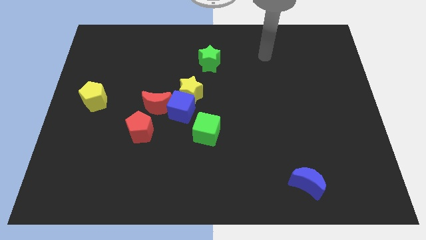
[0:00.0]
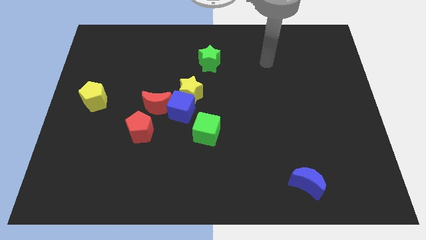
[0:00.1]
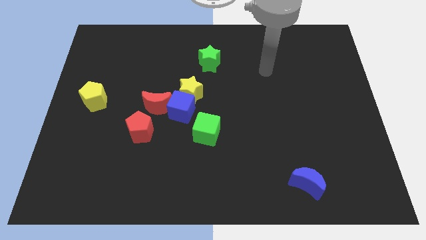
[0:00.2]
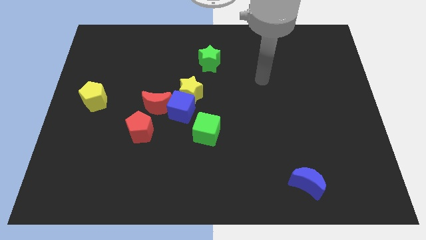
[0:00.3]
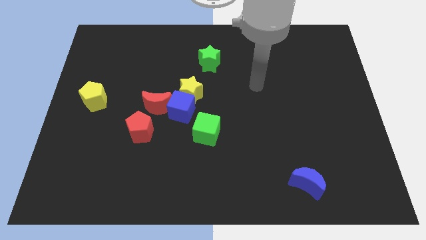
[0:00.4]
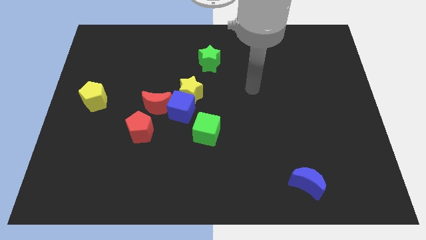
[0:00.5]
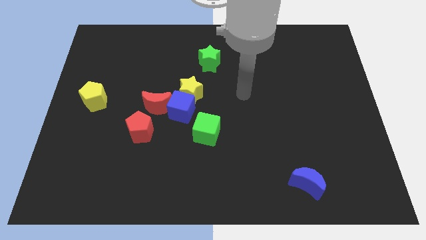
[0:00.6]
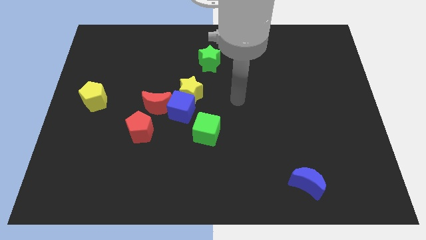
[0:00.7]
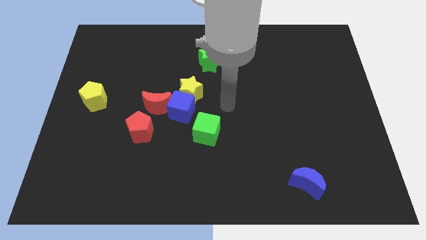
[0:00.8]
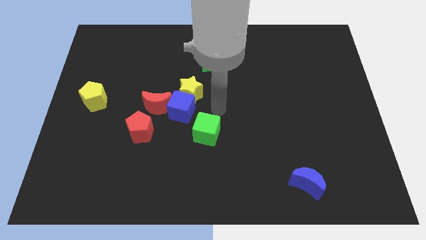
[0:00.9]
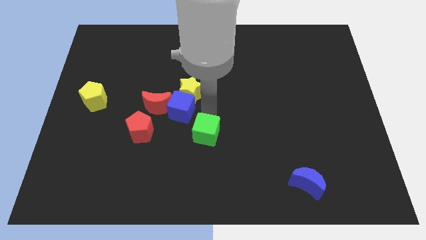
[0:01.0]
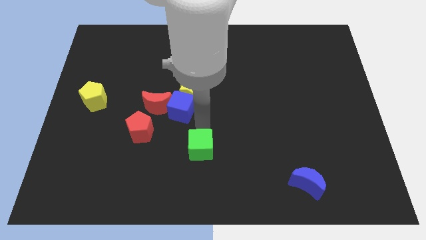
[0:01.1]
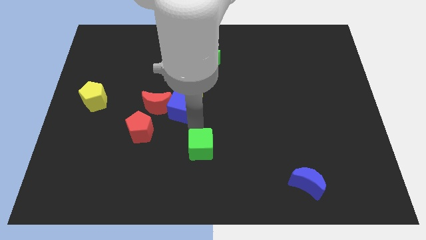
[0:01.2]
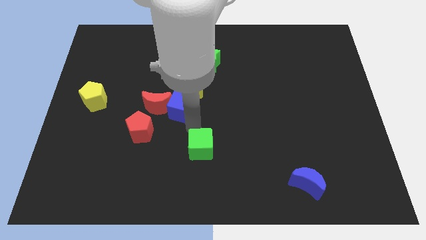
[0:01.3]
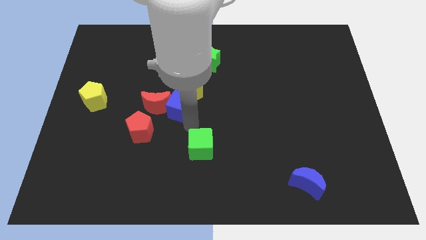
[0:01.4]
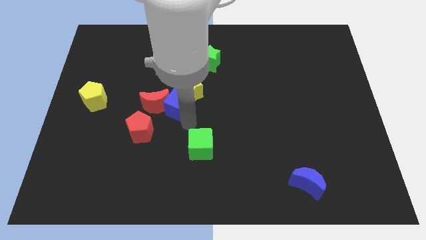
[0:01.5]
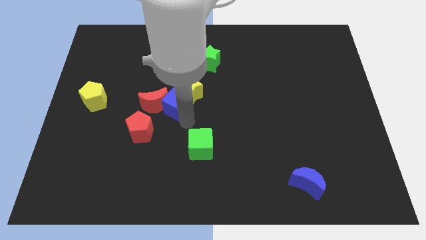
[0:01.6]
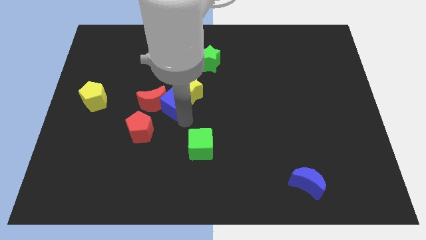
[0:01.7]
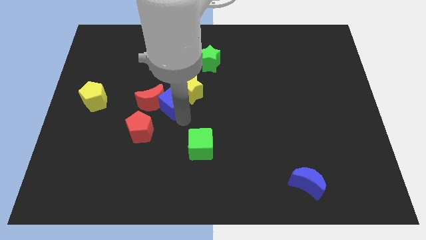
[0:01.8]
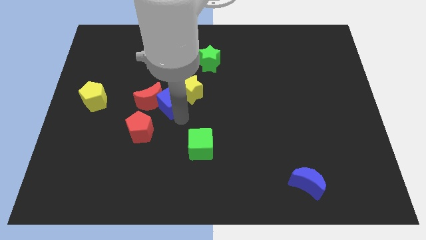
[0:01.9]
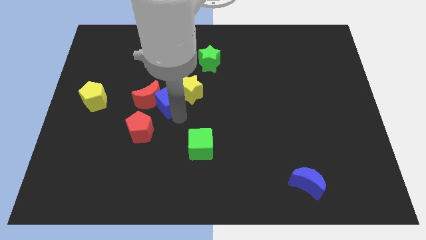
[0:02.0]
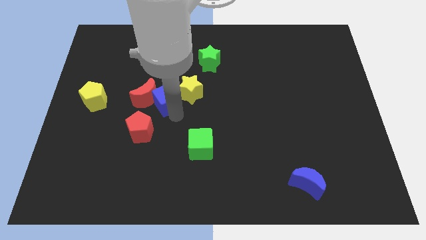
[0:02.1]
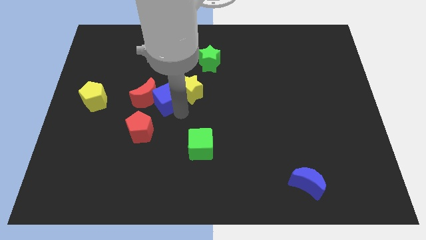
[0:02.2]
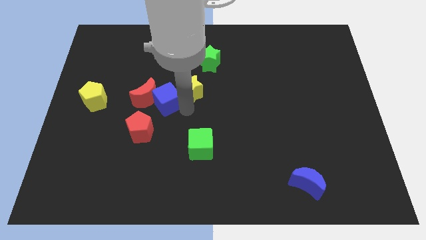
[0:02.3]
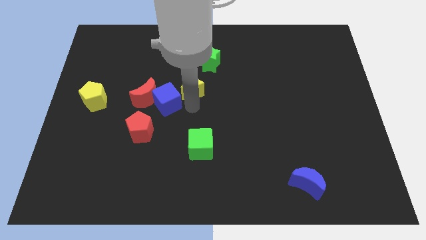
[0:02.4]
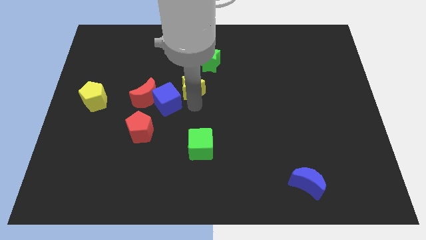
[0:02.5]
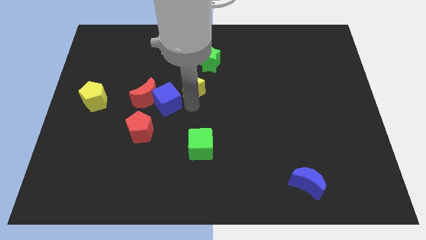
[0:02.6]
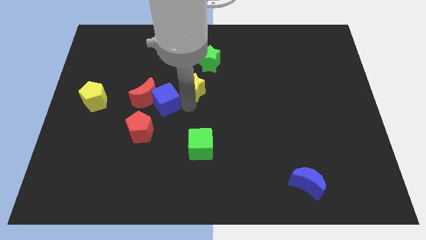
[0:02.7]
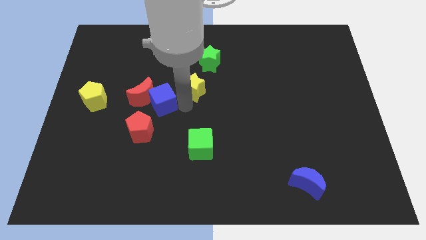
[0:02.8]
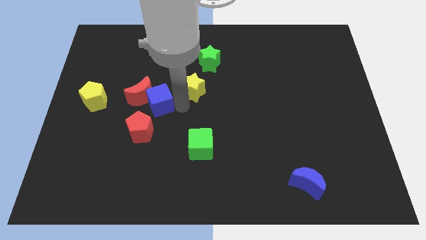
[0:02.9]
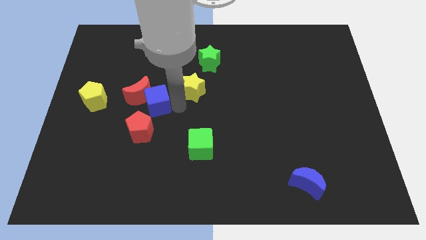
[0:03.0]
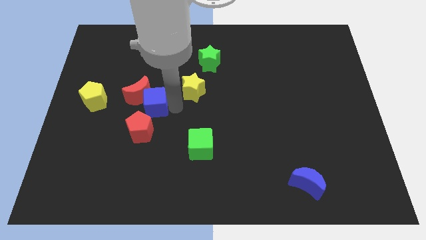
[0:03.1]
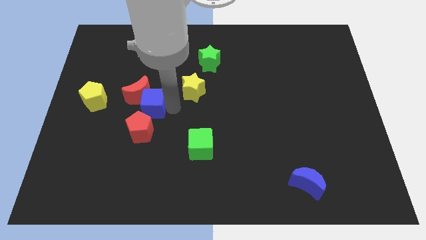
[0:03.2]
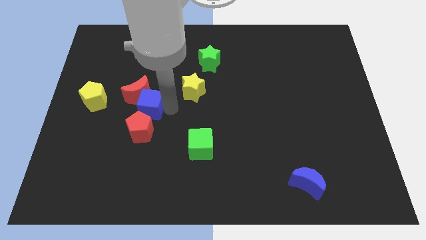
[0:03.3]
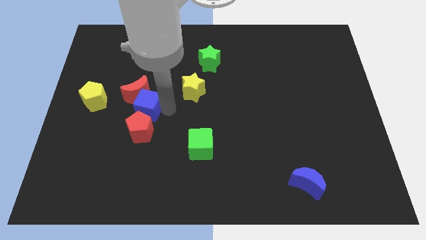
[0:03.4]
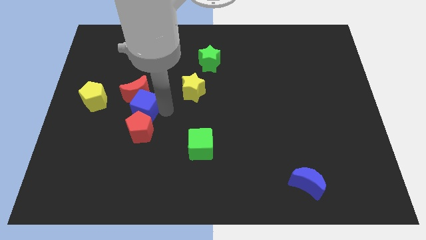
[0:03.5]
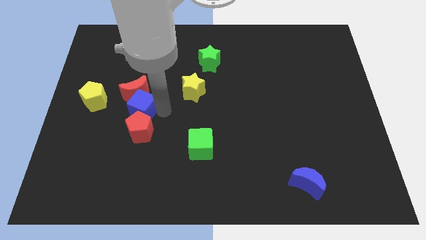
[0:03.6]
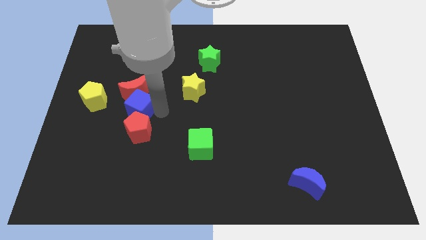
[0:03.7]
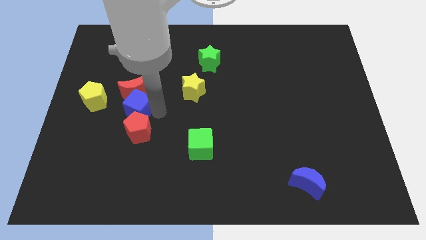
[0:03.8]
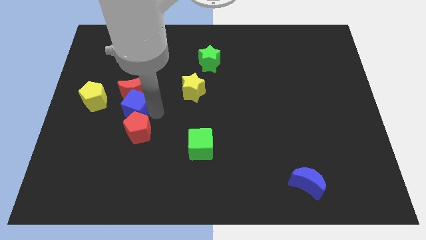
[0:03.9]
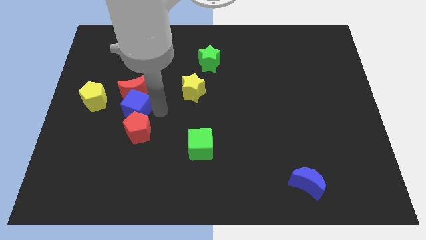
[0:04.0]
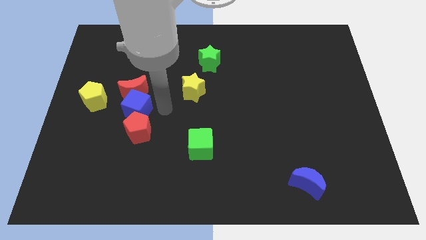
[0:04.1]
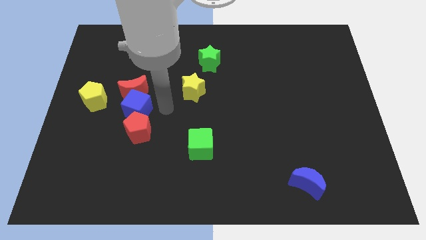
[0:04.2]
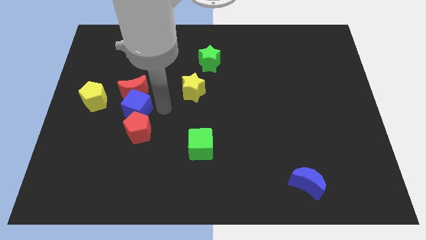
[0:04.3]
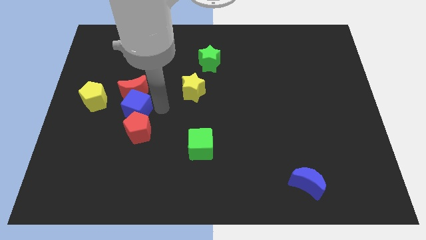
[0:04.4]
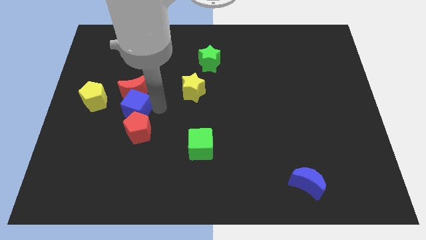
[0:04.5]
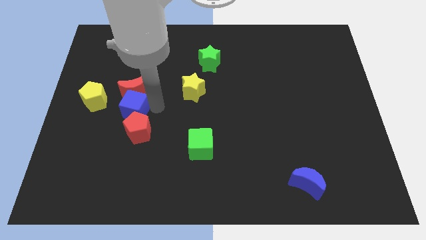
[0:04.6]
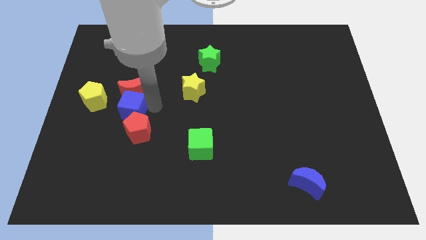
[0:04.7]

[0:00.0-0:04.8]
pull the blue cube apart from the yellow star, red moon, and green cube

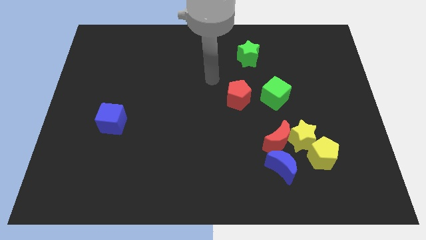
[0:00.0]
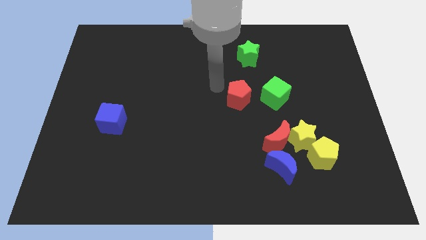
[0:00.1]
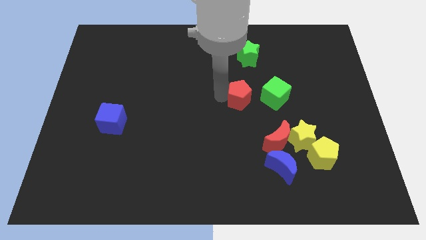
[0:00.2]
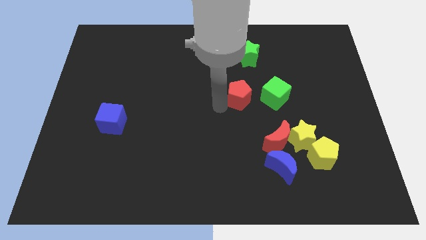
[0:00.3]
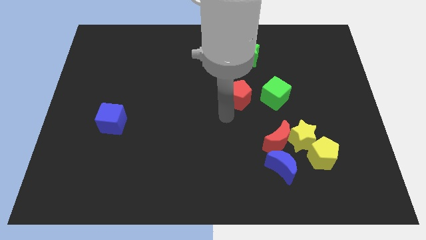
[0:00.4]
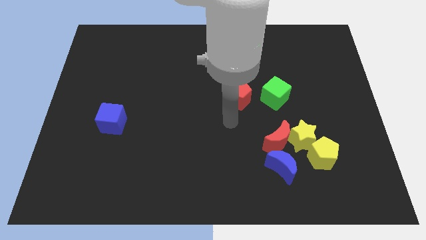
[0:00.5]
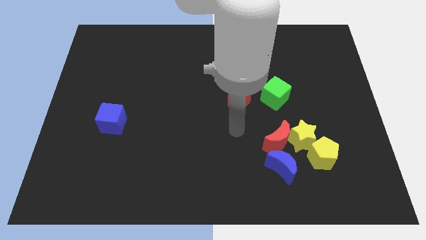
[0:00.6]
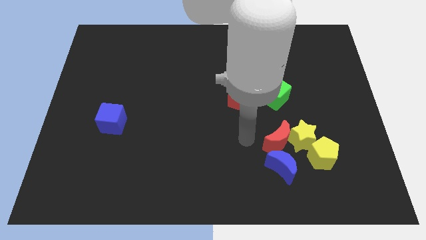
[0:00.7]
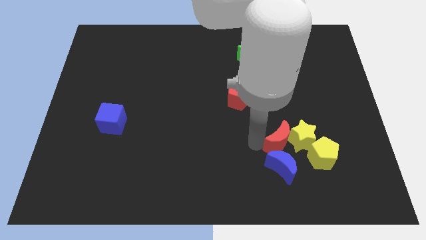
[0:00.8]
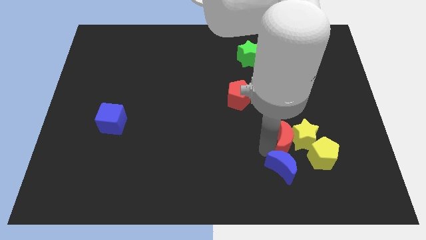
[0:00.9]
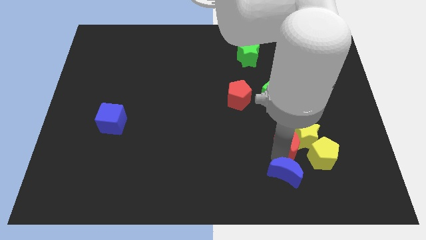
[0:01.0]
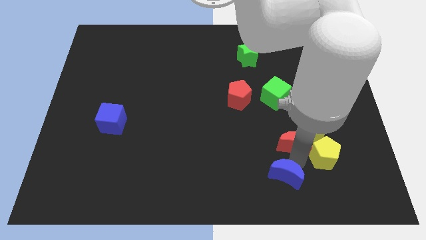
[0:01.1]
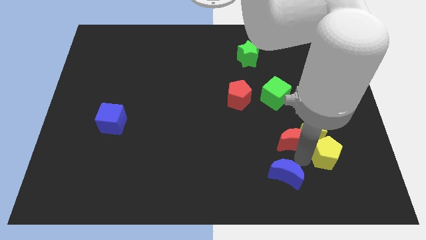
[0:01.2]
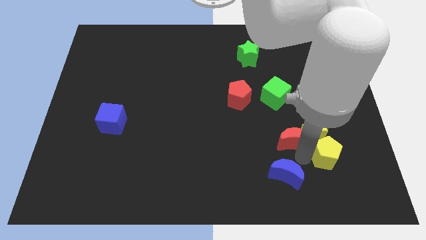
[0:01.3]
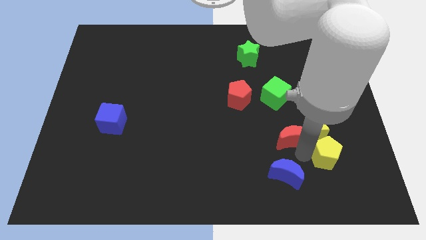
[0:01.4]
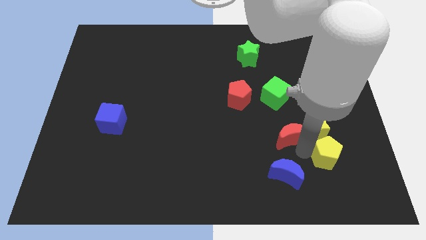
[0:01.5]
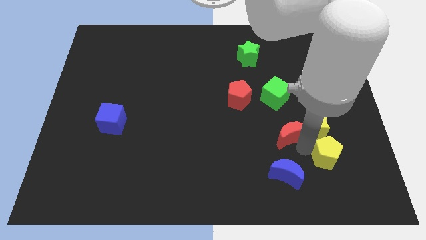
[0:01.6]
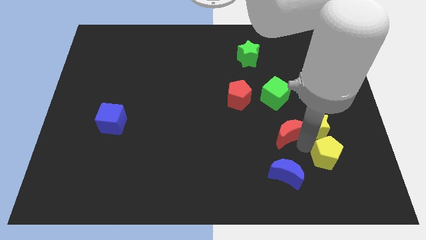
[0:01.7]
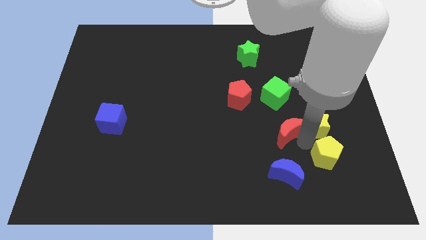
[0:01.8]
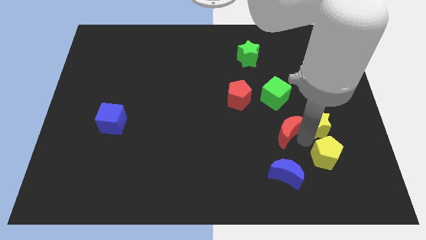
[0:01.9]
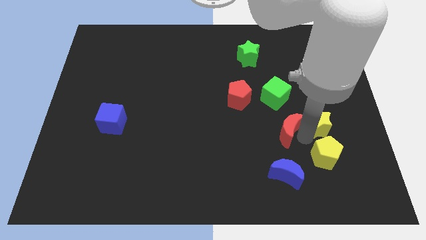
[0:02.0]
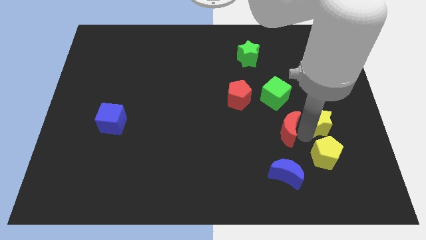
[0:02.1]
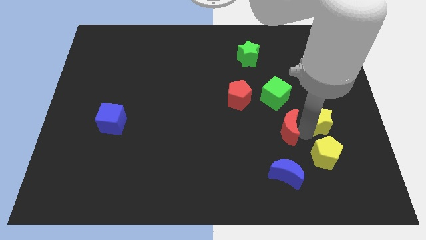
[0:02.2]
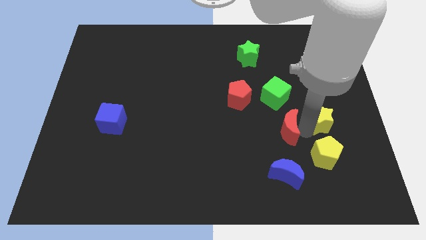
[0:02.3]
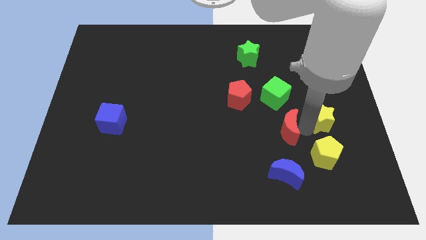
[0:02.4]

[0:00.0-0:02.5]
pull the yellow star apart from the red moon, yellow pentagon, and blue moon

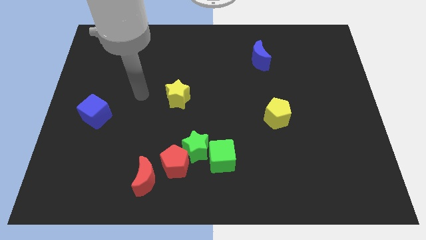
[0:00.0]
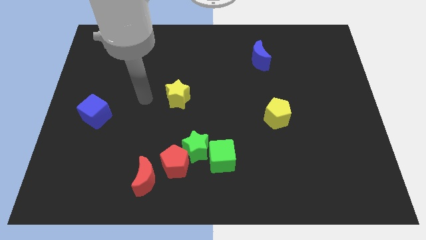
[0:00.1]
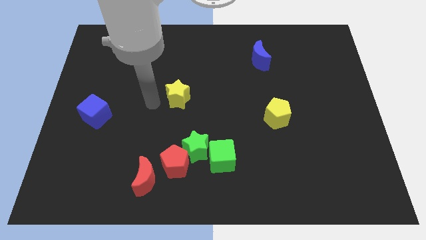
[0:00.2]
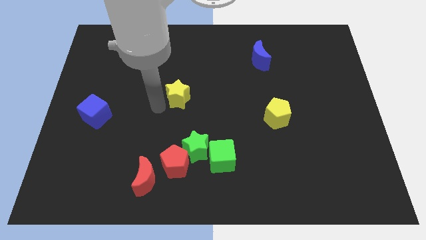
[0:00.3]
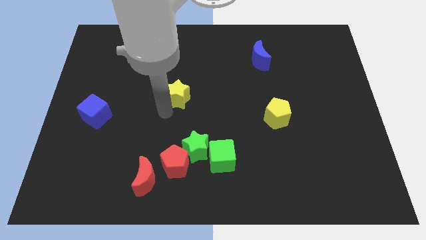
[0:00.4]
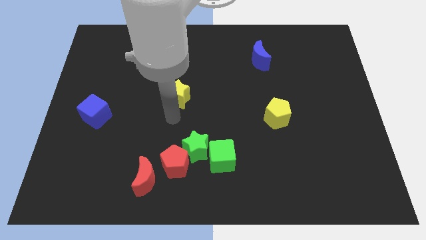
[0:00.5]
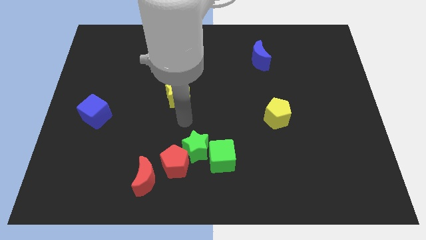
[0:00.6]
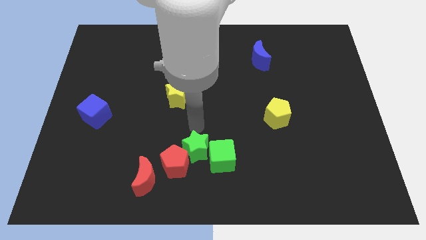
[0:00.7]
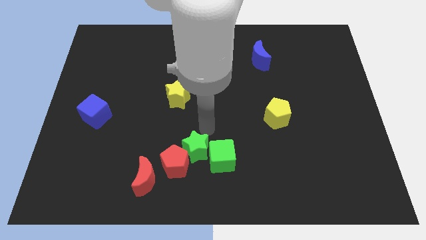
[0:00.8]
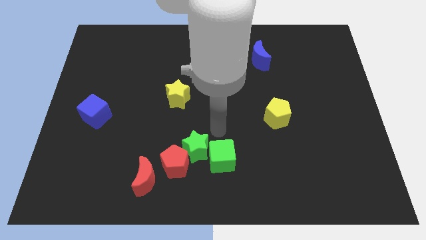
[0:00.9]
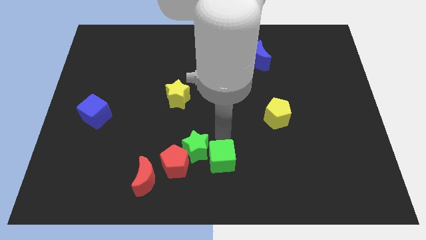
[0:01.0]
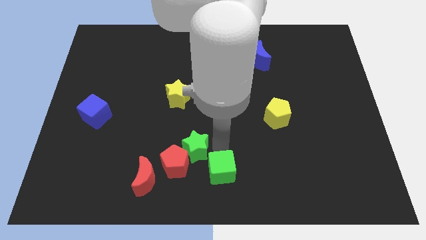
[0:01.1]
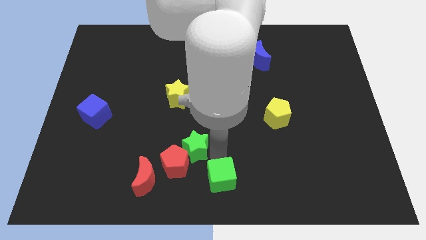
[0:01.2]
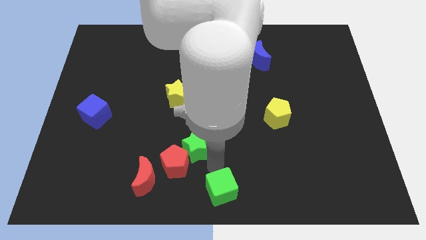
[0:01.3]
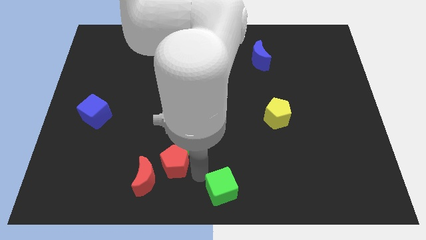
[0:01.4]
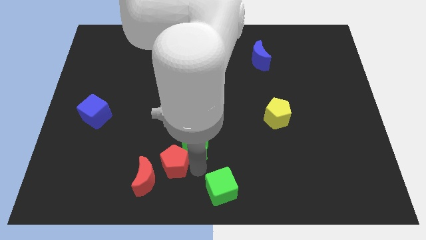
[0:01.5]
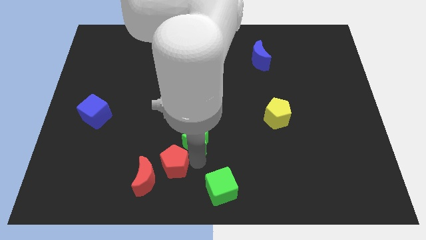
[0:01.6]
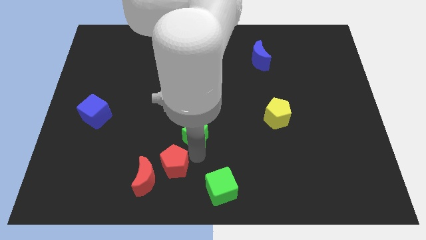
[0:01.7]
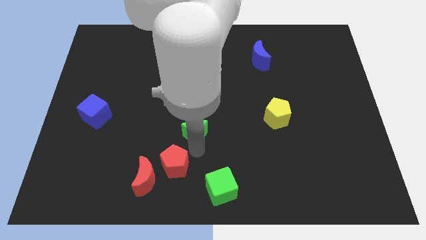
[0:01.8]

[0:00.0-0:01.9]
move the green star away from the red pentagon and green cube

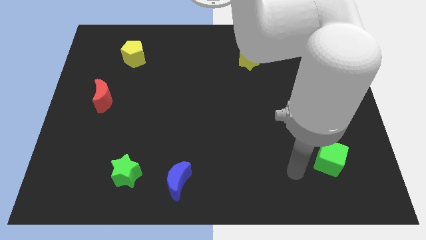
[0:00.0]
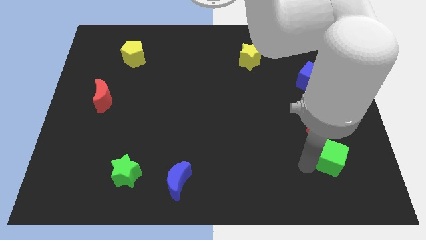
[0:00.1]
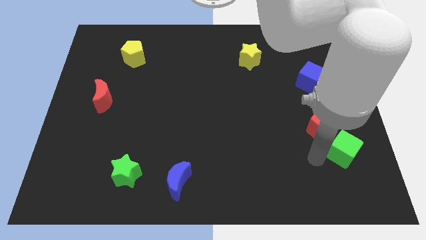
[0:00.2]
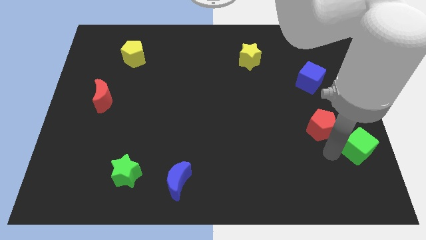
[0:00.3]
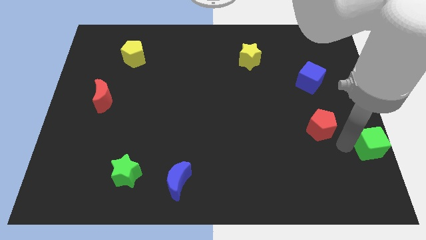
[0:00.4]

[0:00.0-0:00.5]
separate the red pentagon from the green cube
